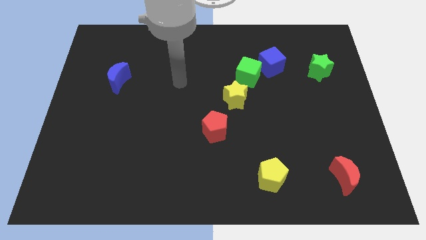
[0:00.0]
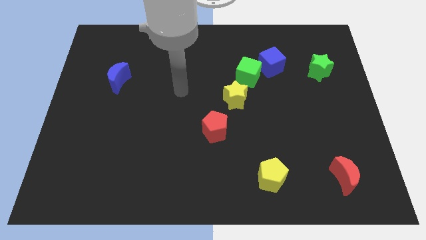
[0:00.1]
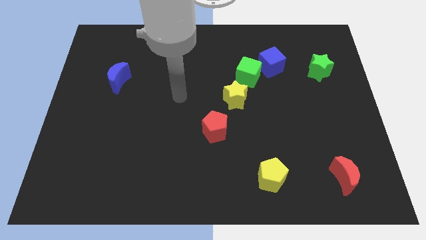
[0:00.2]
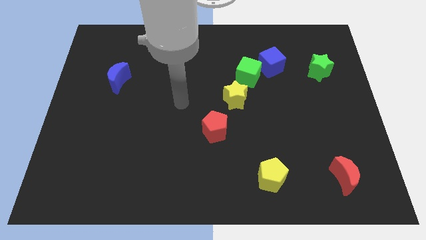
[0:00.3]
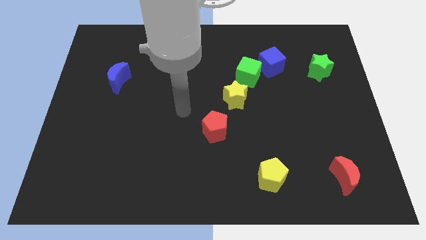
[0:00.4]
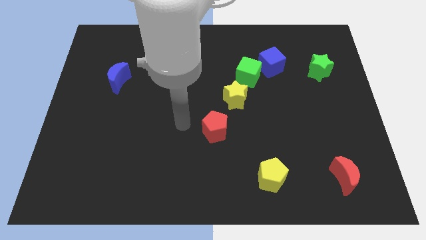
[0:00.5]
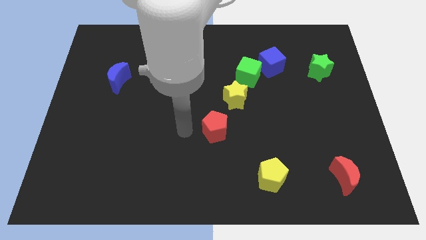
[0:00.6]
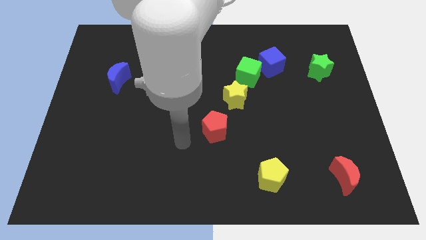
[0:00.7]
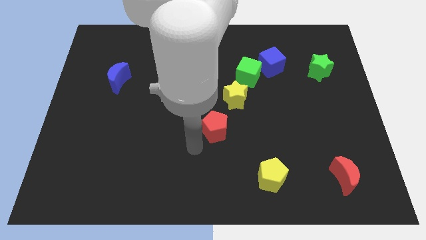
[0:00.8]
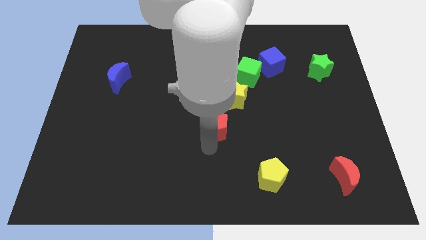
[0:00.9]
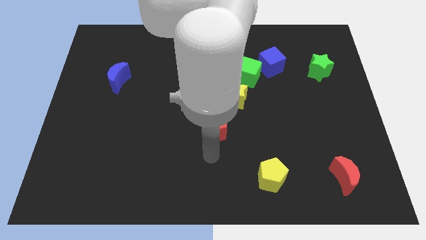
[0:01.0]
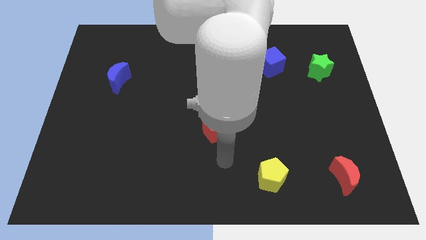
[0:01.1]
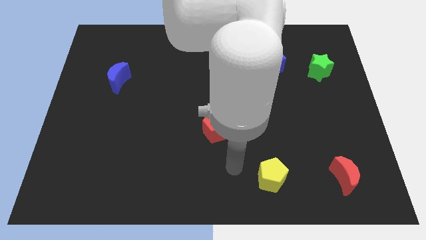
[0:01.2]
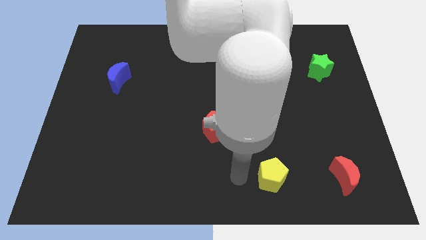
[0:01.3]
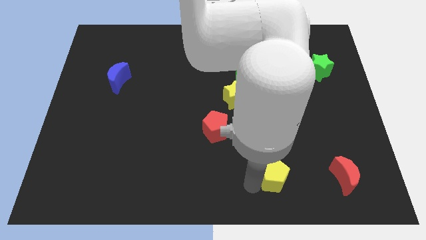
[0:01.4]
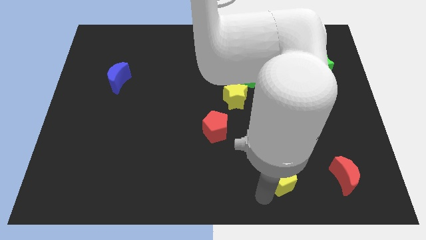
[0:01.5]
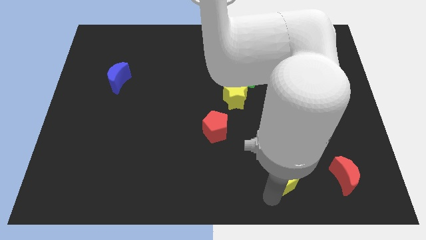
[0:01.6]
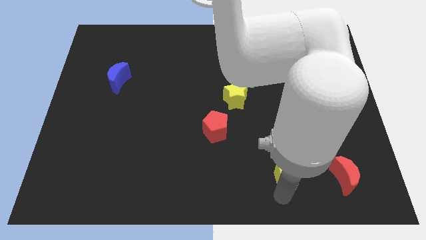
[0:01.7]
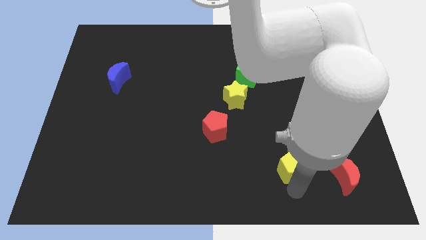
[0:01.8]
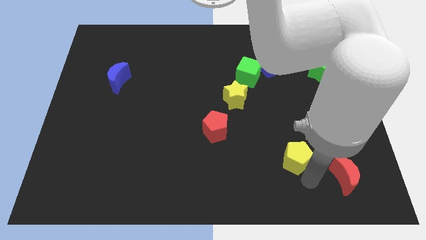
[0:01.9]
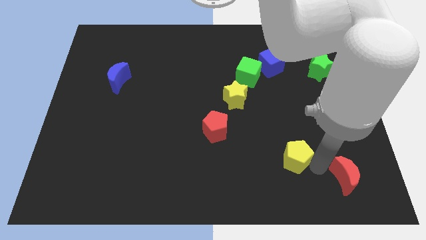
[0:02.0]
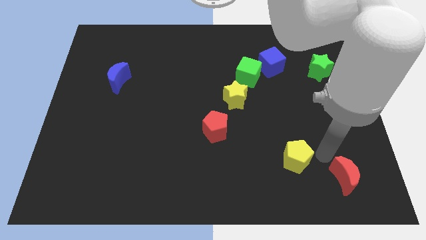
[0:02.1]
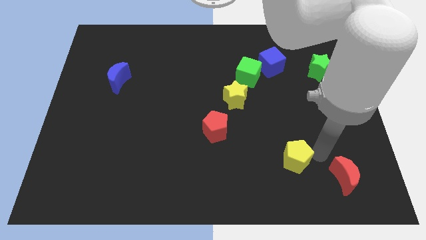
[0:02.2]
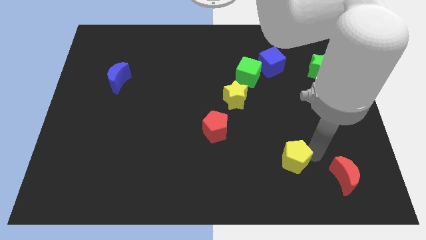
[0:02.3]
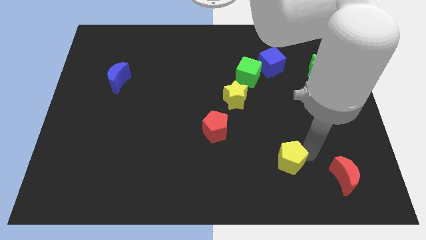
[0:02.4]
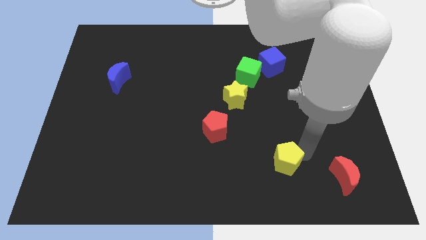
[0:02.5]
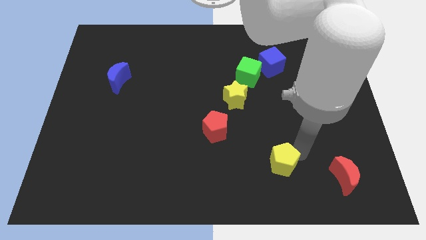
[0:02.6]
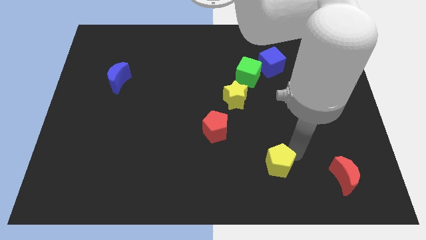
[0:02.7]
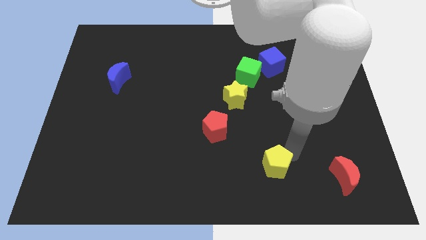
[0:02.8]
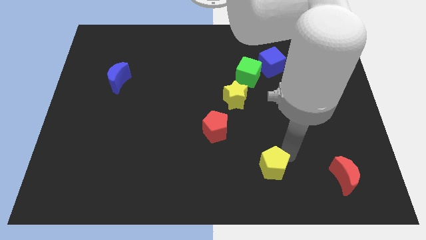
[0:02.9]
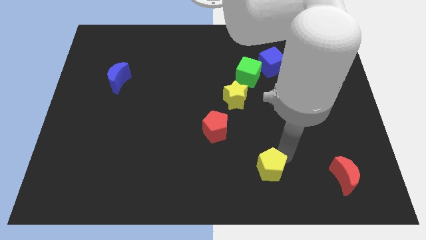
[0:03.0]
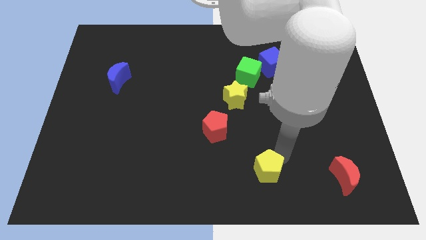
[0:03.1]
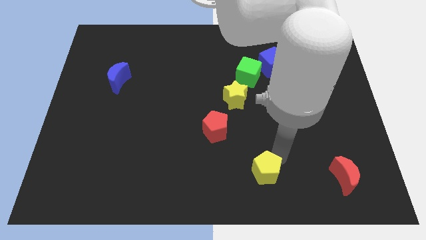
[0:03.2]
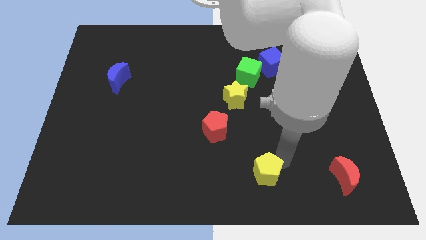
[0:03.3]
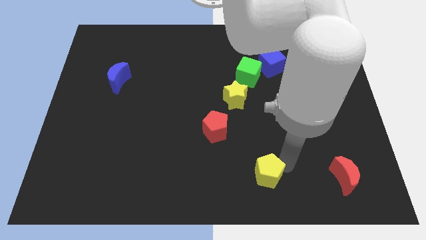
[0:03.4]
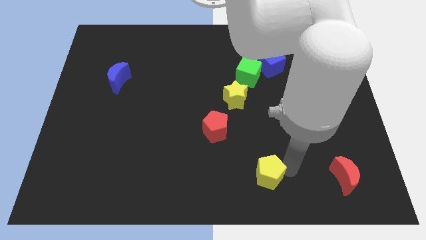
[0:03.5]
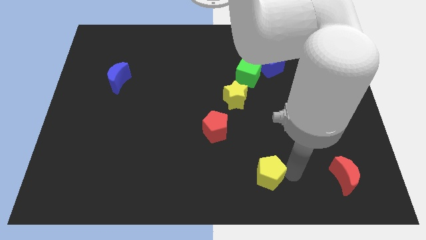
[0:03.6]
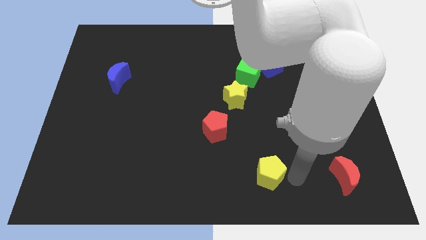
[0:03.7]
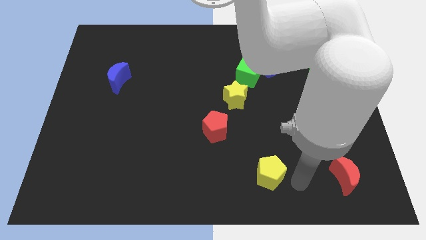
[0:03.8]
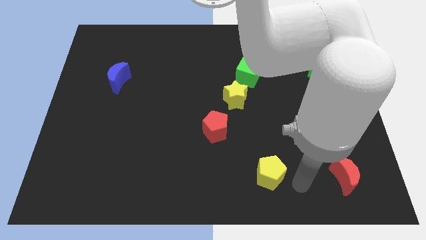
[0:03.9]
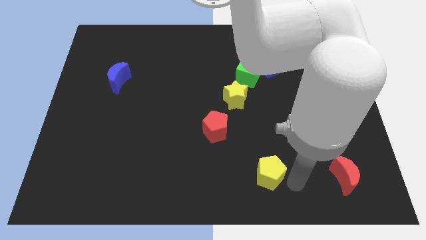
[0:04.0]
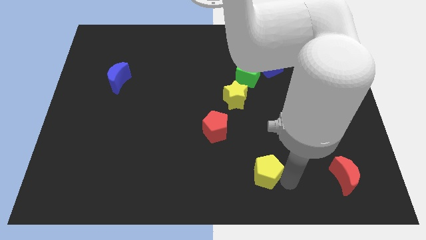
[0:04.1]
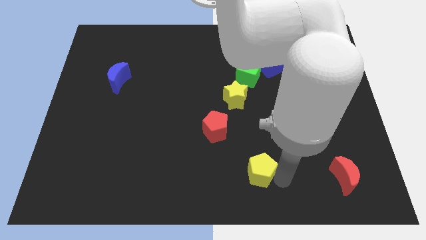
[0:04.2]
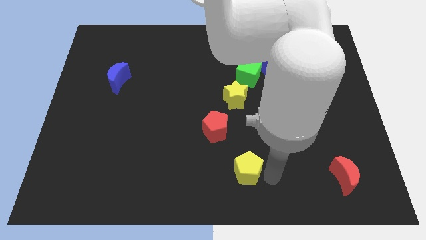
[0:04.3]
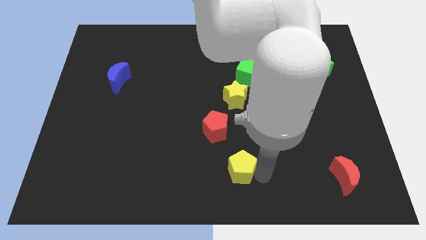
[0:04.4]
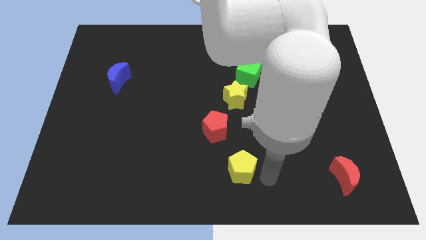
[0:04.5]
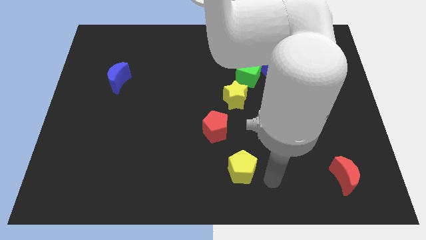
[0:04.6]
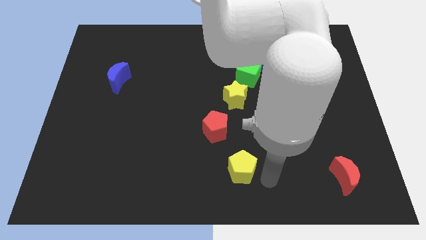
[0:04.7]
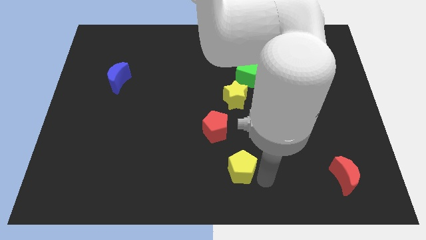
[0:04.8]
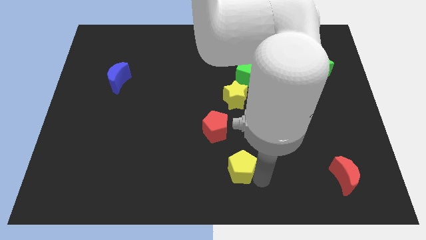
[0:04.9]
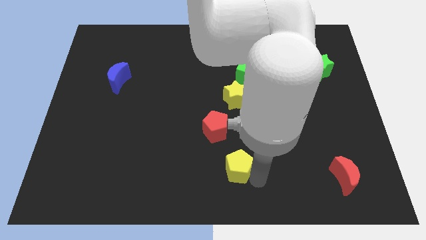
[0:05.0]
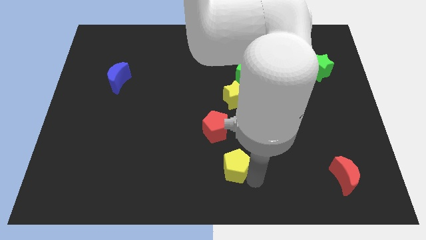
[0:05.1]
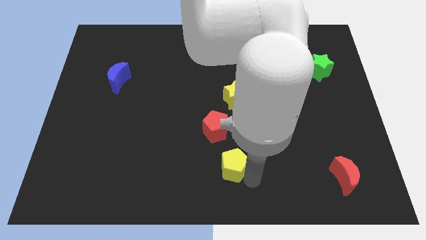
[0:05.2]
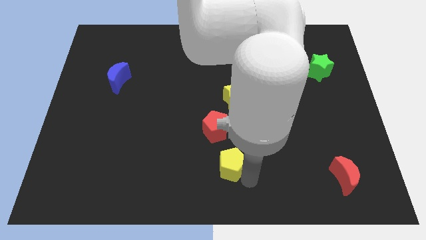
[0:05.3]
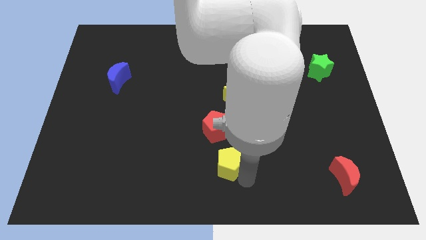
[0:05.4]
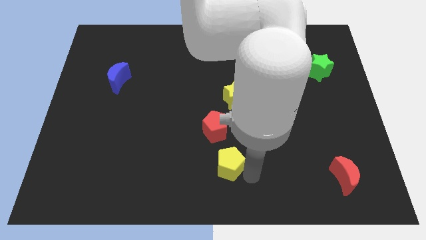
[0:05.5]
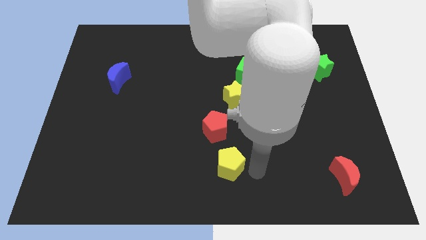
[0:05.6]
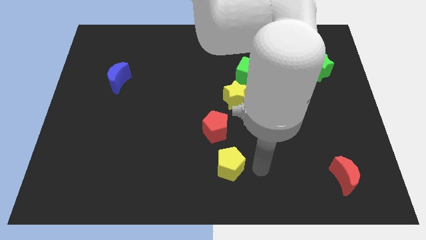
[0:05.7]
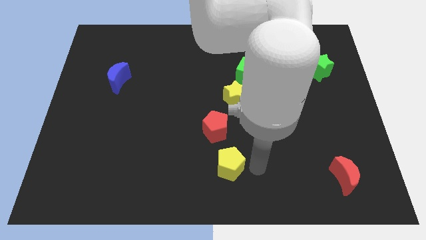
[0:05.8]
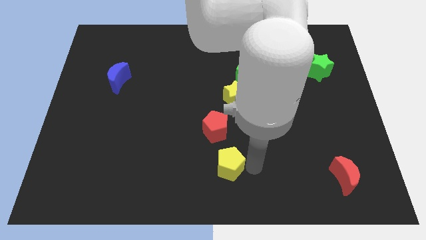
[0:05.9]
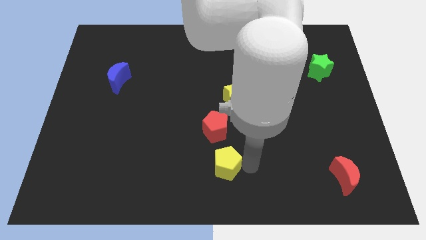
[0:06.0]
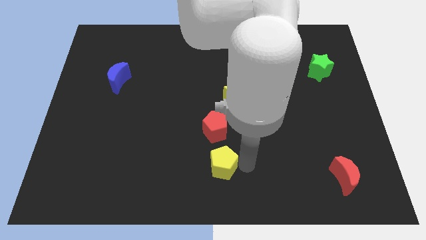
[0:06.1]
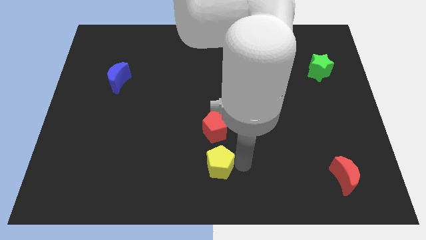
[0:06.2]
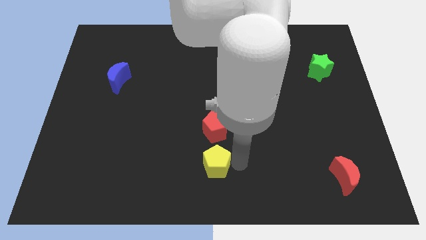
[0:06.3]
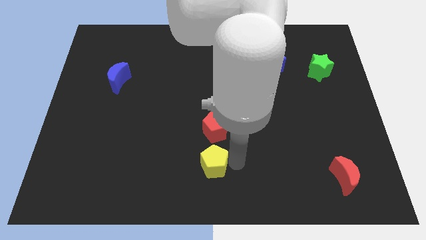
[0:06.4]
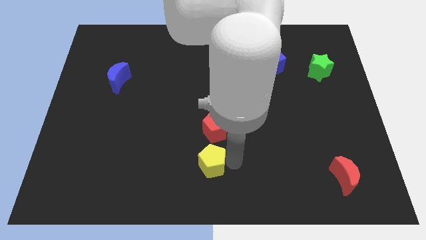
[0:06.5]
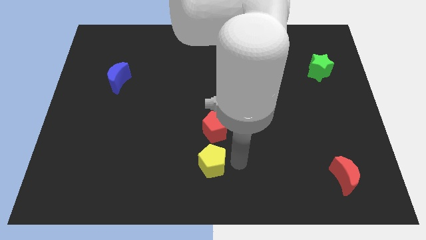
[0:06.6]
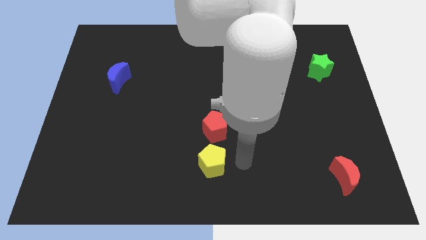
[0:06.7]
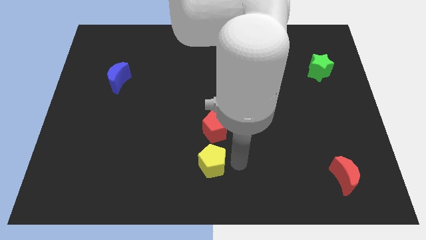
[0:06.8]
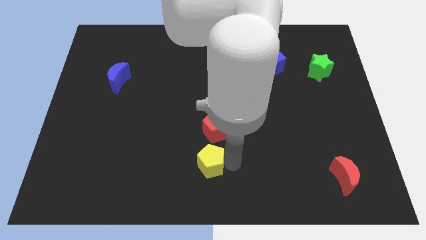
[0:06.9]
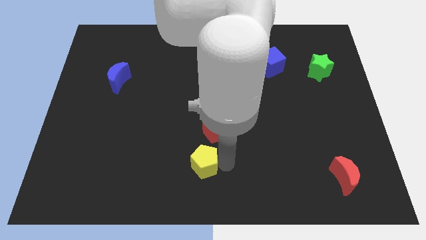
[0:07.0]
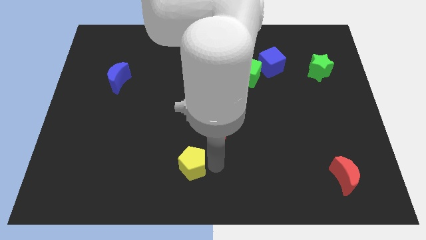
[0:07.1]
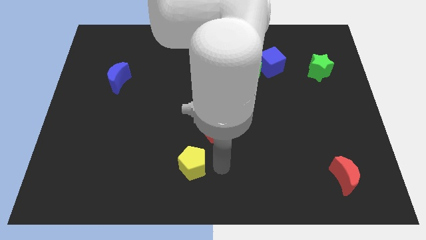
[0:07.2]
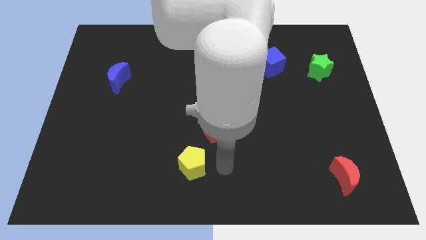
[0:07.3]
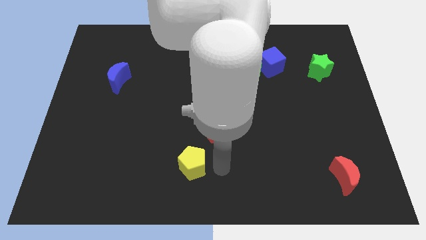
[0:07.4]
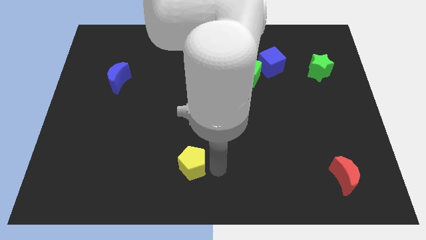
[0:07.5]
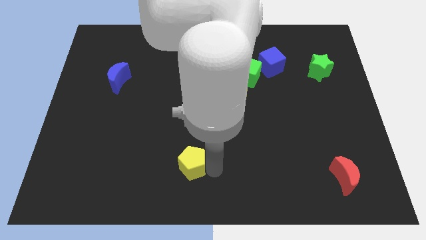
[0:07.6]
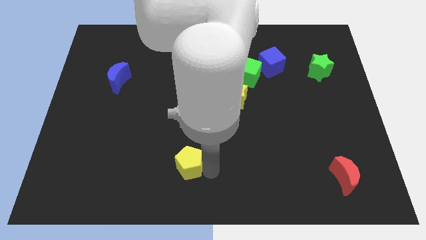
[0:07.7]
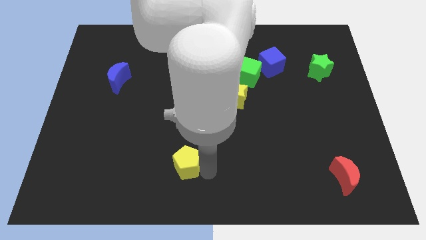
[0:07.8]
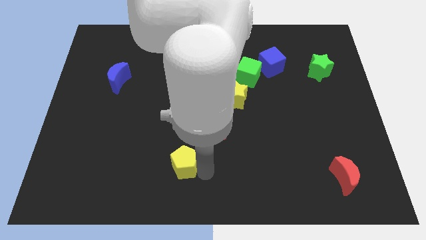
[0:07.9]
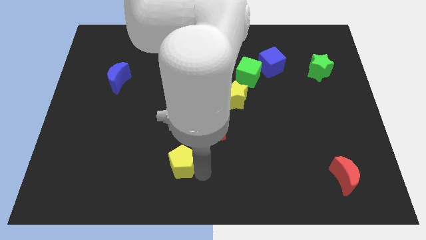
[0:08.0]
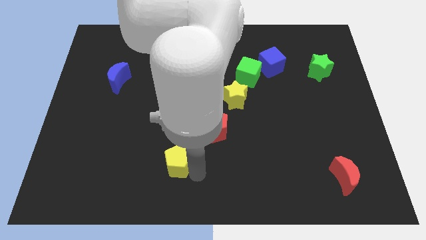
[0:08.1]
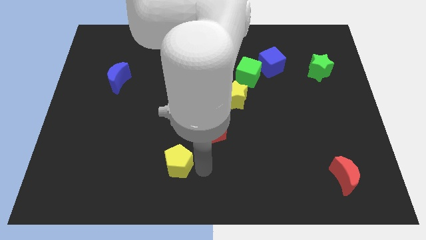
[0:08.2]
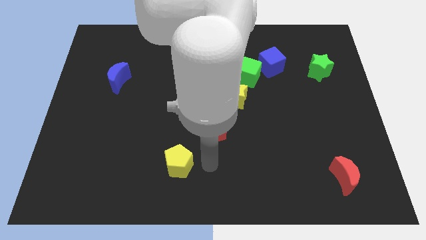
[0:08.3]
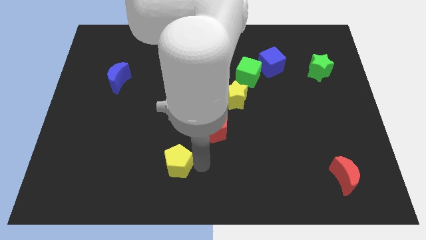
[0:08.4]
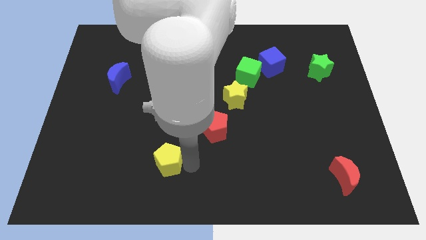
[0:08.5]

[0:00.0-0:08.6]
push the yellow pentagon to the left
